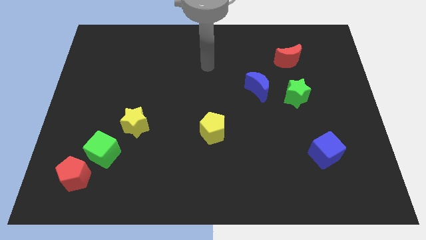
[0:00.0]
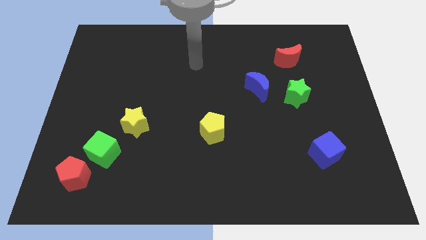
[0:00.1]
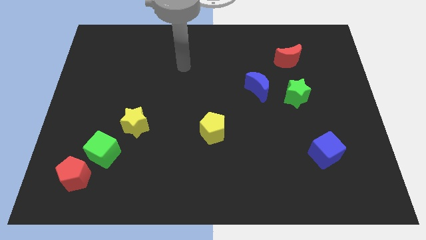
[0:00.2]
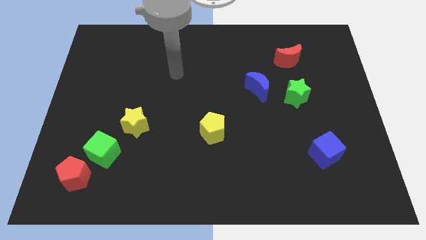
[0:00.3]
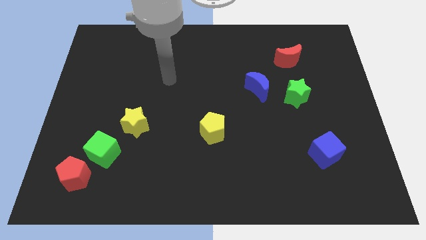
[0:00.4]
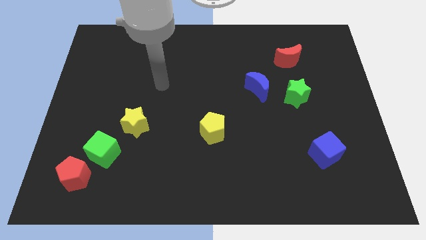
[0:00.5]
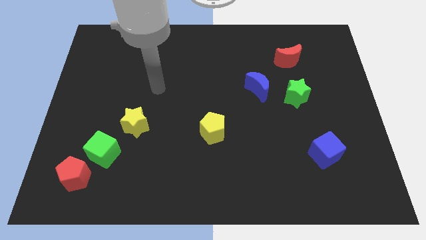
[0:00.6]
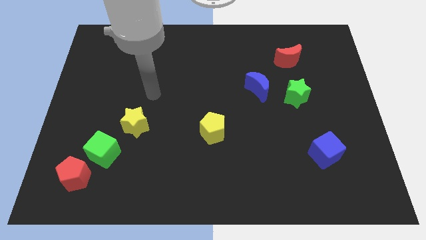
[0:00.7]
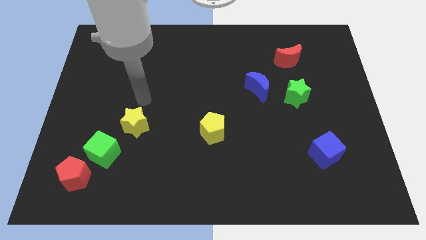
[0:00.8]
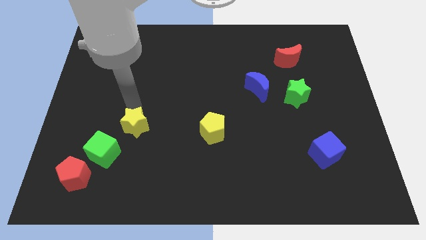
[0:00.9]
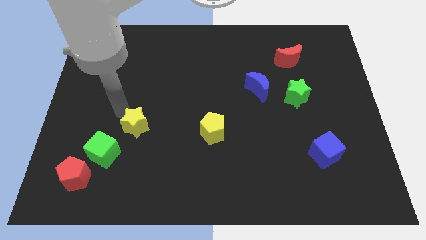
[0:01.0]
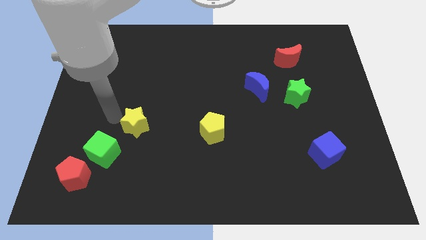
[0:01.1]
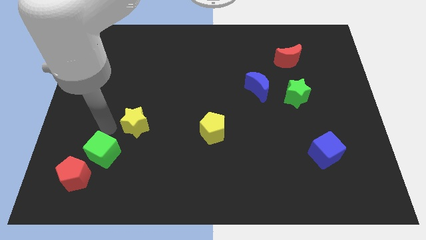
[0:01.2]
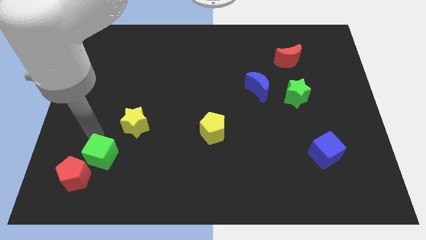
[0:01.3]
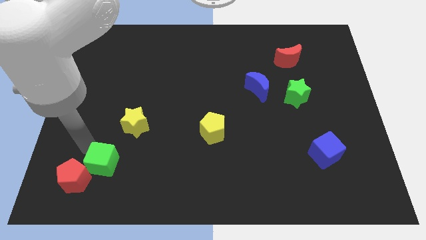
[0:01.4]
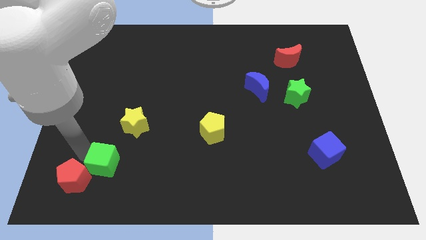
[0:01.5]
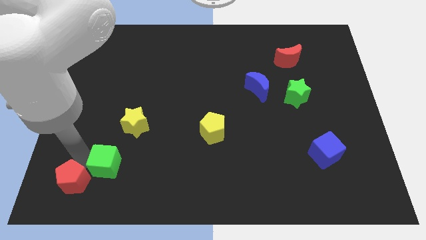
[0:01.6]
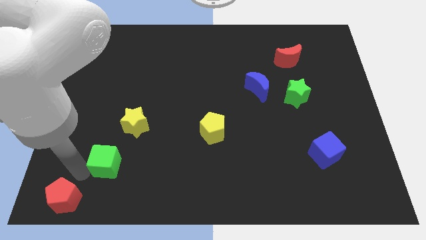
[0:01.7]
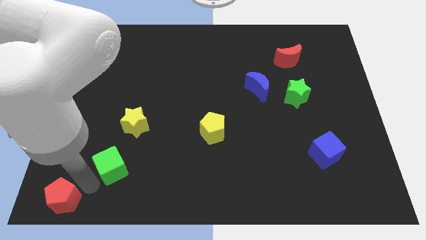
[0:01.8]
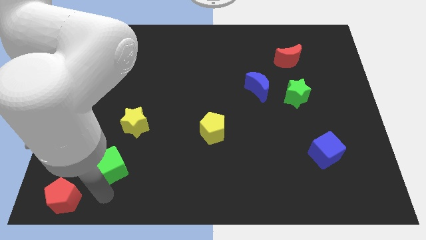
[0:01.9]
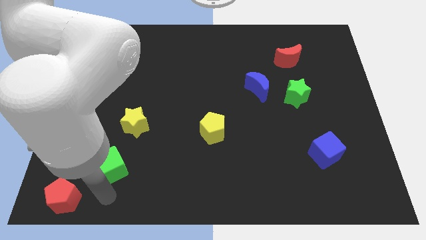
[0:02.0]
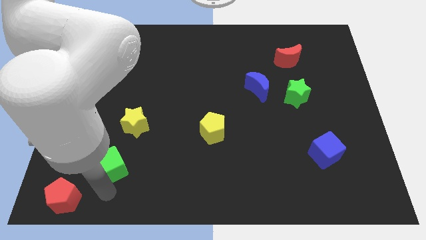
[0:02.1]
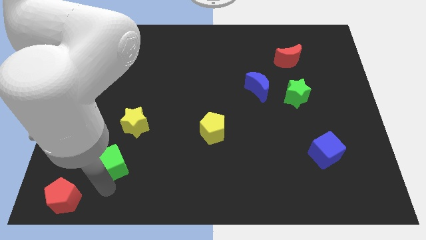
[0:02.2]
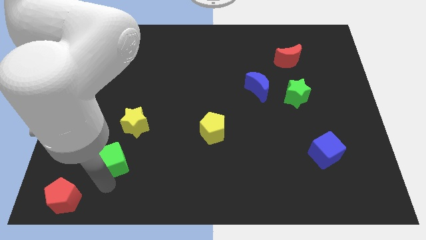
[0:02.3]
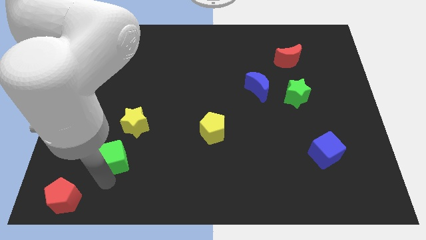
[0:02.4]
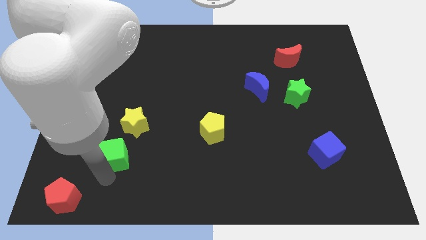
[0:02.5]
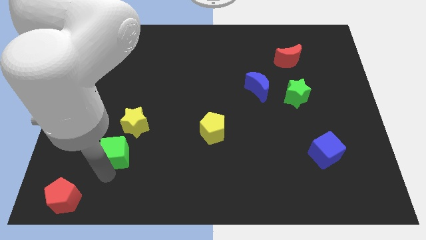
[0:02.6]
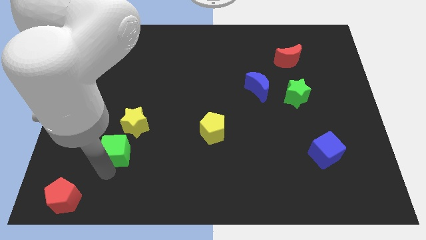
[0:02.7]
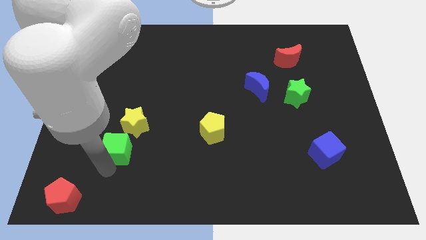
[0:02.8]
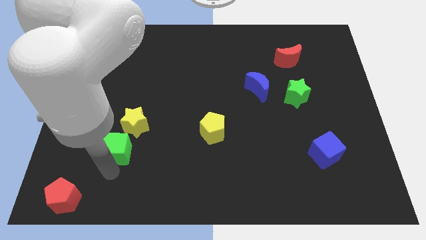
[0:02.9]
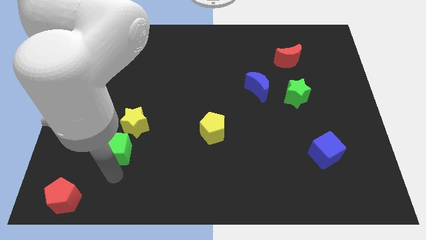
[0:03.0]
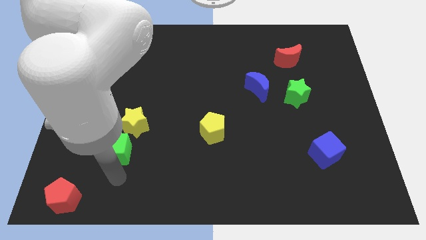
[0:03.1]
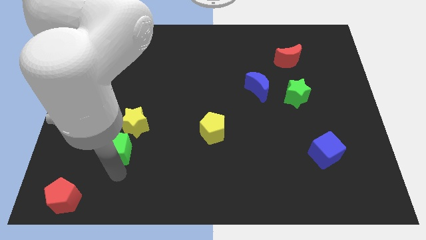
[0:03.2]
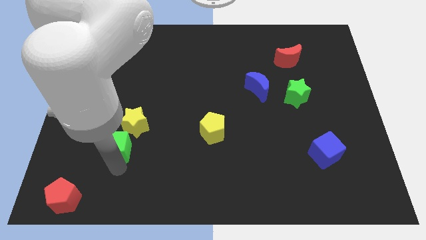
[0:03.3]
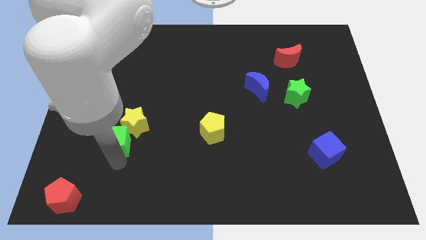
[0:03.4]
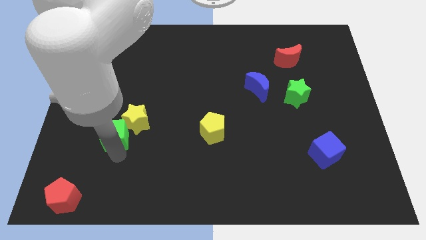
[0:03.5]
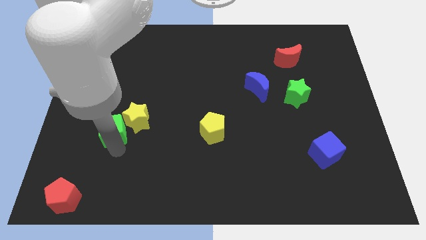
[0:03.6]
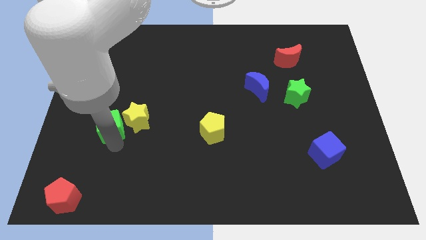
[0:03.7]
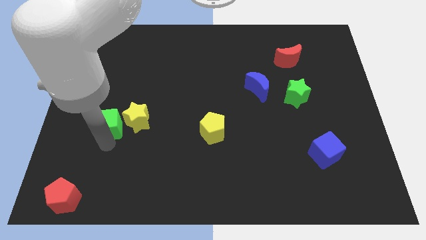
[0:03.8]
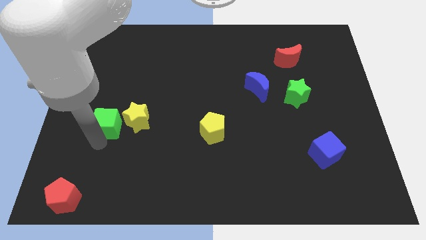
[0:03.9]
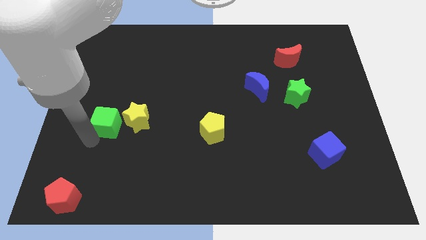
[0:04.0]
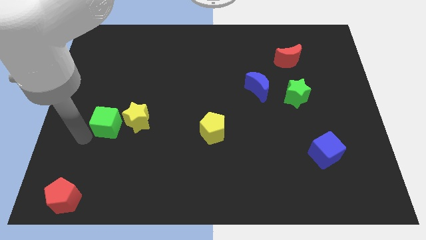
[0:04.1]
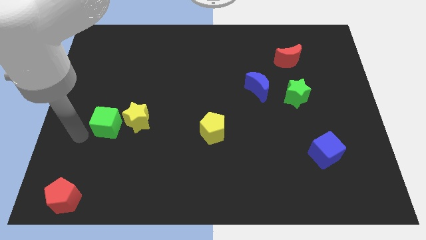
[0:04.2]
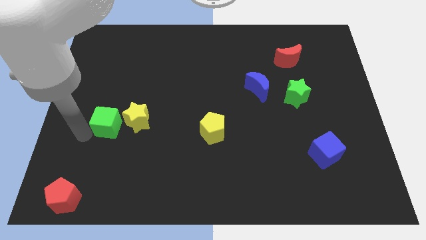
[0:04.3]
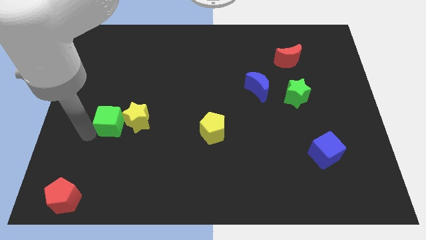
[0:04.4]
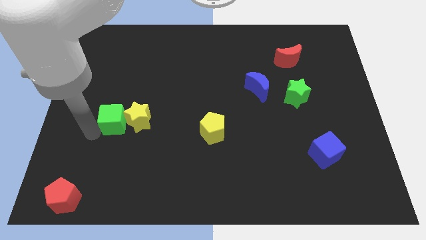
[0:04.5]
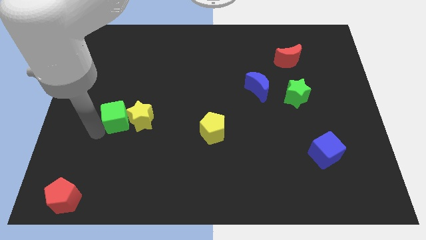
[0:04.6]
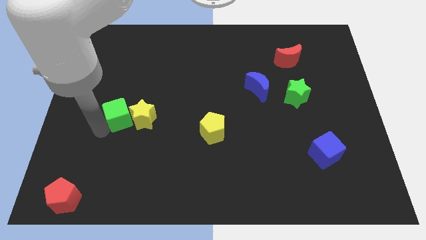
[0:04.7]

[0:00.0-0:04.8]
slightly move the green cube upwards and right diagonally

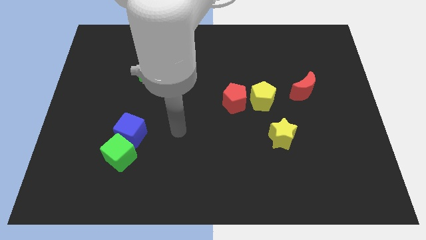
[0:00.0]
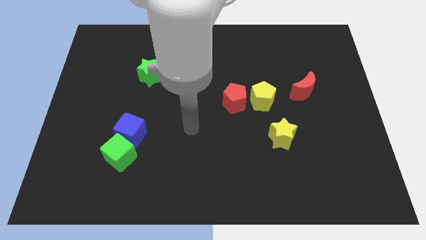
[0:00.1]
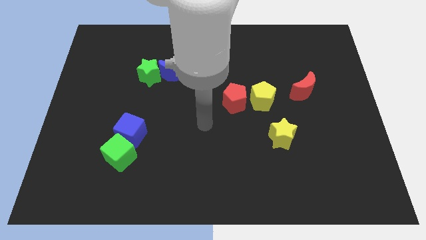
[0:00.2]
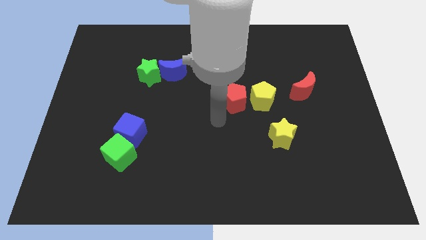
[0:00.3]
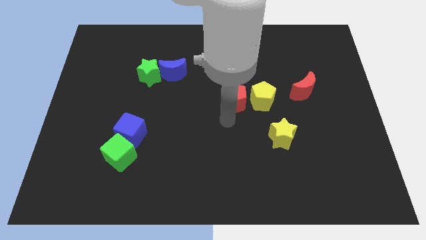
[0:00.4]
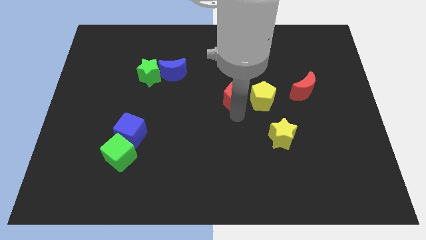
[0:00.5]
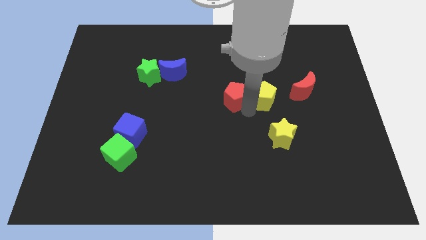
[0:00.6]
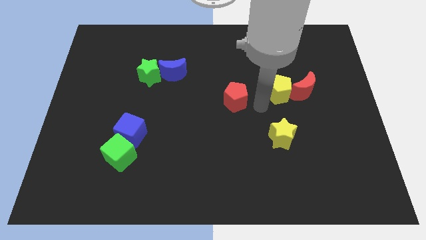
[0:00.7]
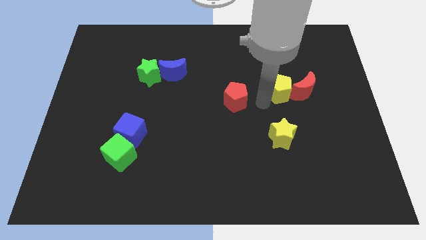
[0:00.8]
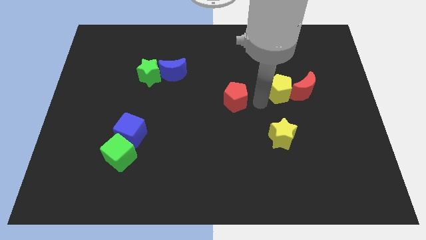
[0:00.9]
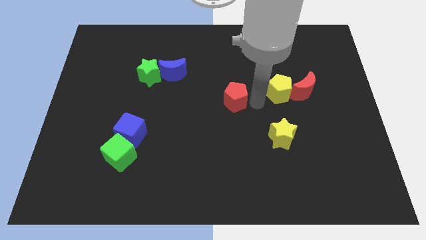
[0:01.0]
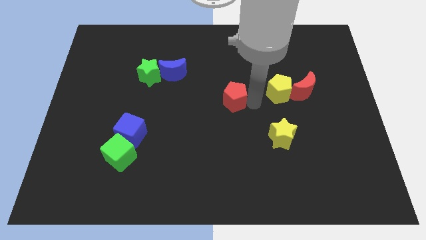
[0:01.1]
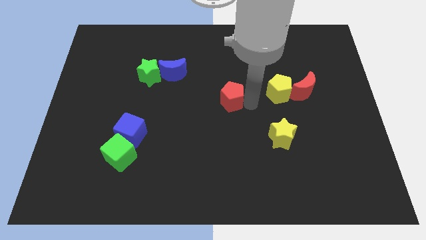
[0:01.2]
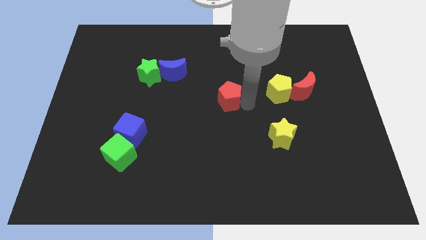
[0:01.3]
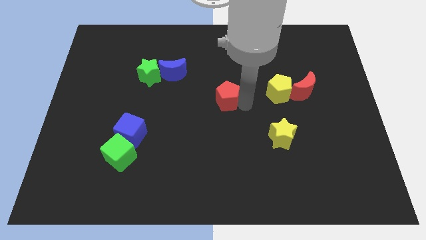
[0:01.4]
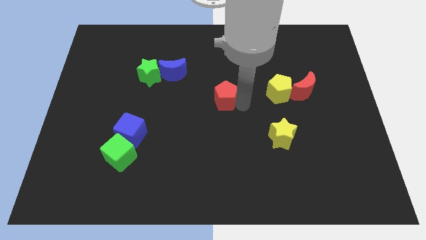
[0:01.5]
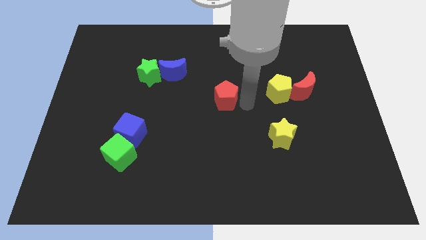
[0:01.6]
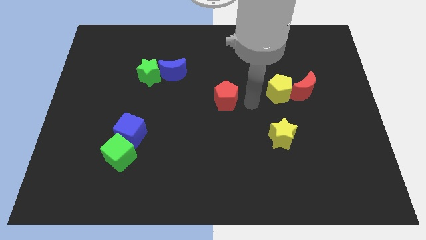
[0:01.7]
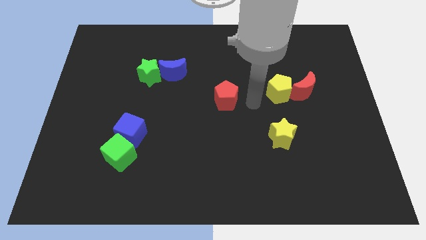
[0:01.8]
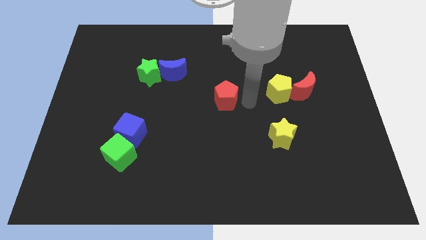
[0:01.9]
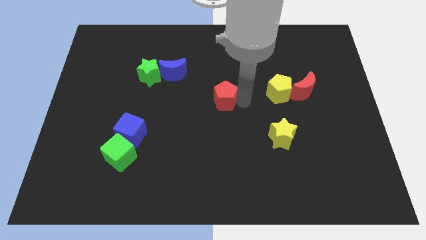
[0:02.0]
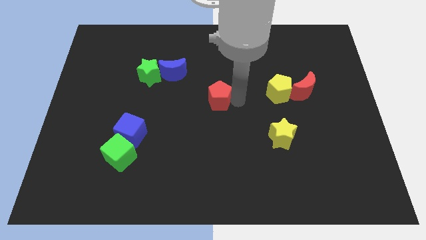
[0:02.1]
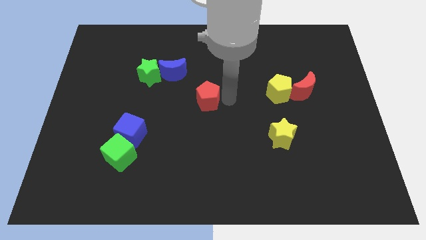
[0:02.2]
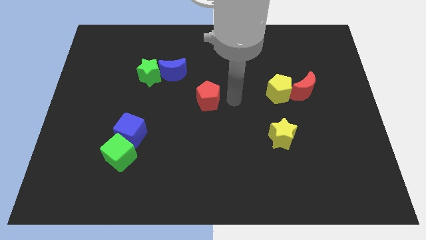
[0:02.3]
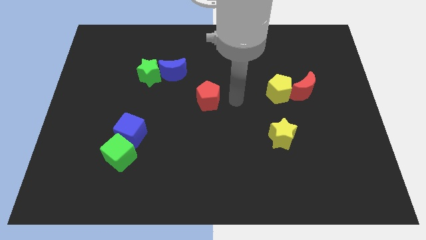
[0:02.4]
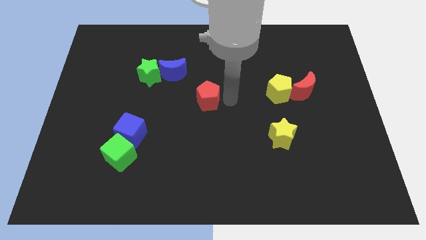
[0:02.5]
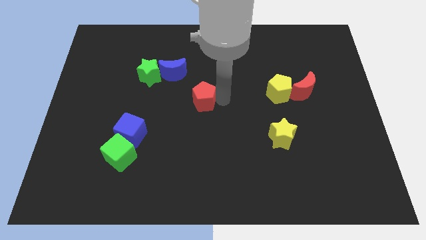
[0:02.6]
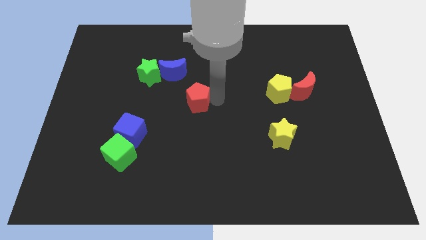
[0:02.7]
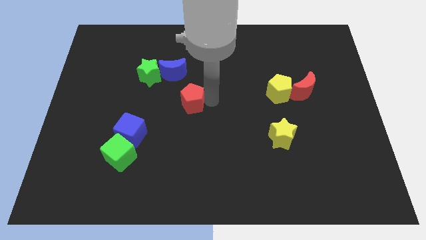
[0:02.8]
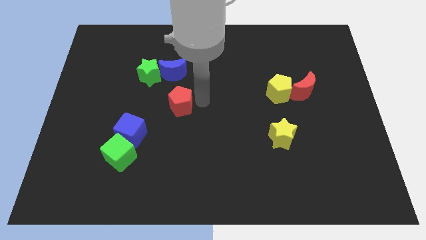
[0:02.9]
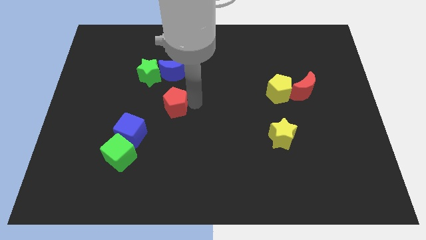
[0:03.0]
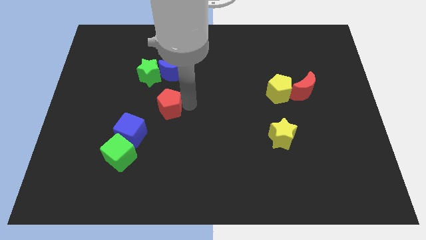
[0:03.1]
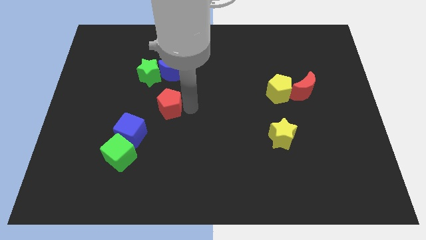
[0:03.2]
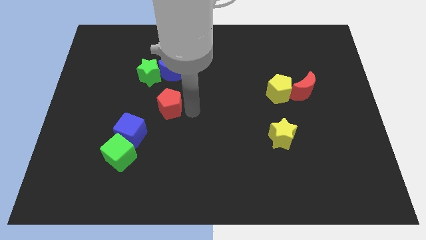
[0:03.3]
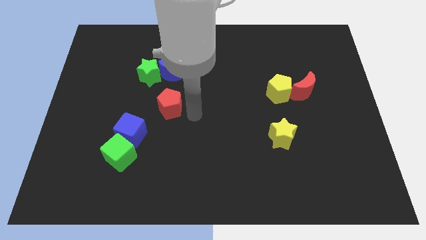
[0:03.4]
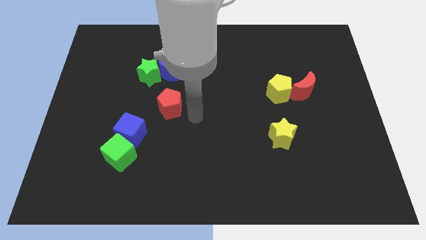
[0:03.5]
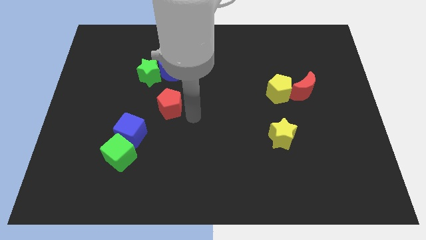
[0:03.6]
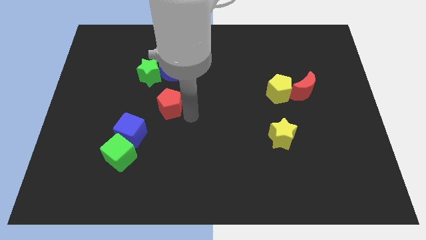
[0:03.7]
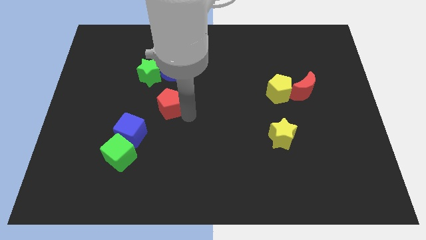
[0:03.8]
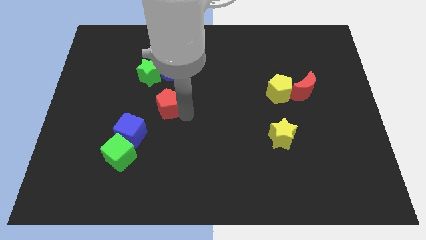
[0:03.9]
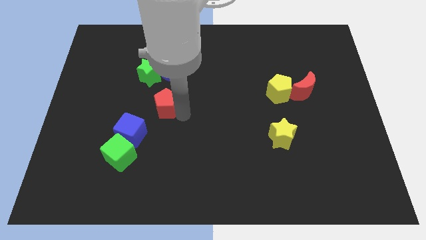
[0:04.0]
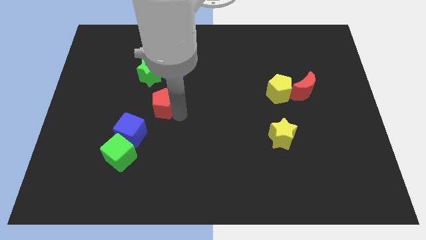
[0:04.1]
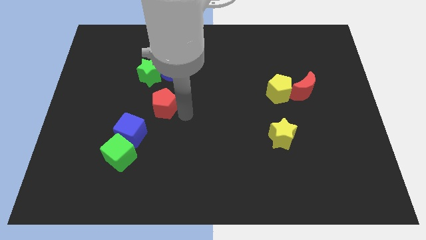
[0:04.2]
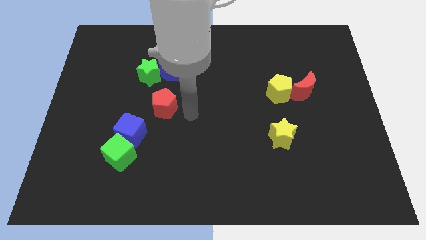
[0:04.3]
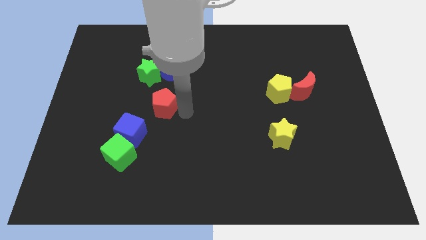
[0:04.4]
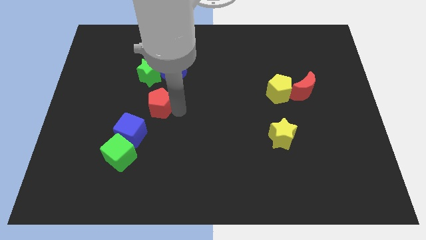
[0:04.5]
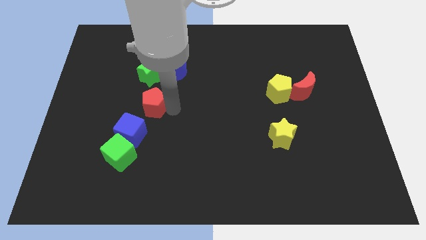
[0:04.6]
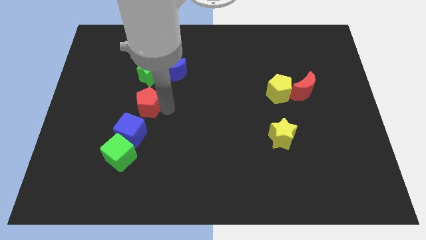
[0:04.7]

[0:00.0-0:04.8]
move the red pentagon to the left
